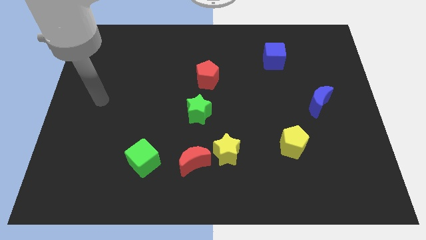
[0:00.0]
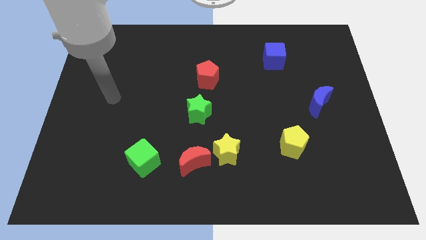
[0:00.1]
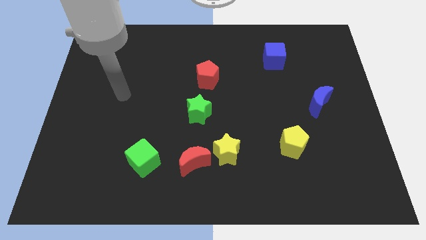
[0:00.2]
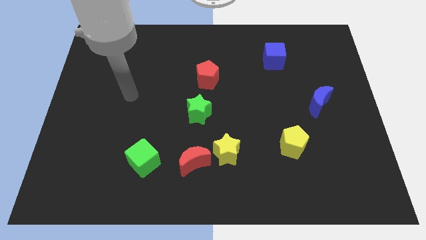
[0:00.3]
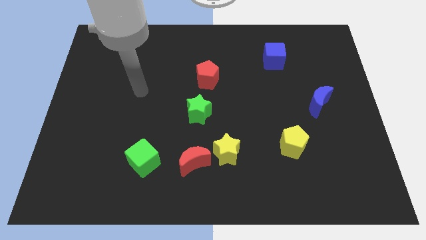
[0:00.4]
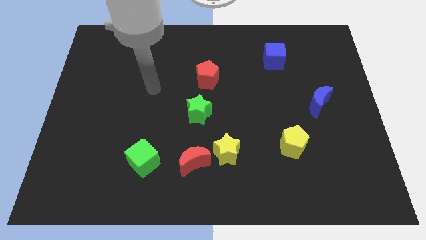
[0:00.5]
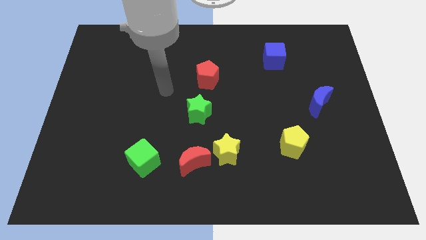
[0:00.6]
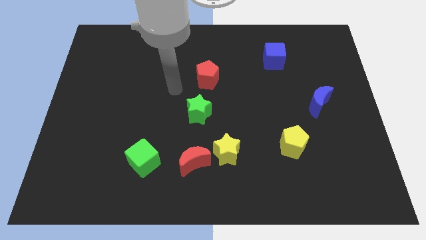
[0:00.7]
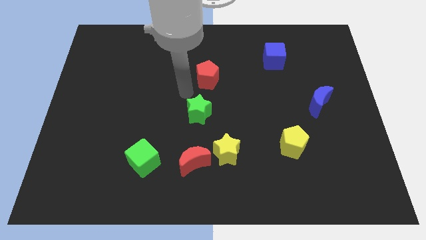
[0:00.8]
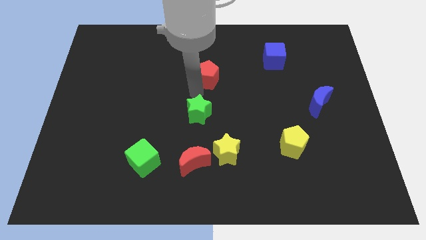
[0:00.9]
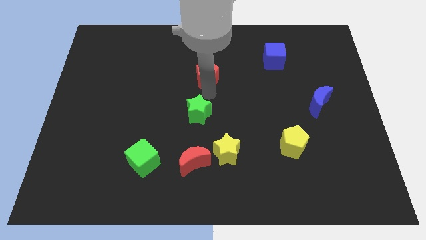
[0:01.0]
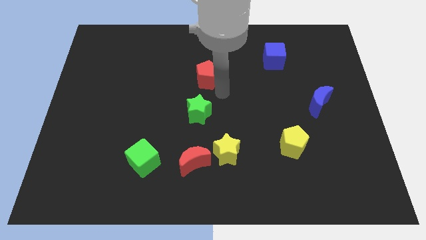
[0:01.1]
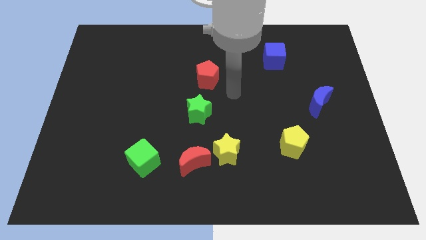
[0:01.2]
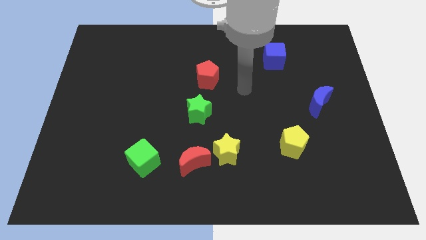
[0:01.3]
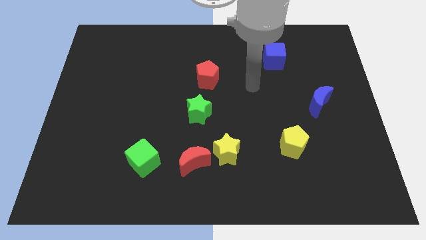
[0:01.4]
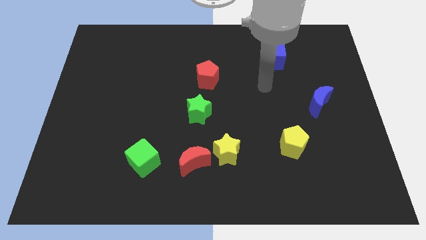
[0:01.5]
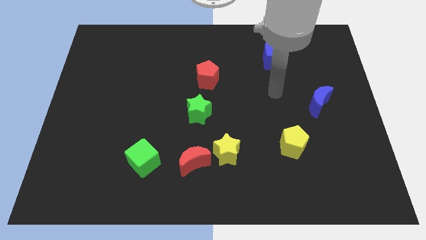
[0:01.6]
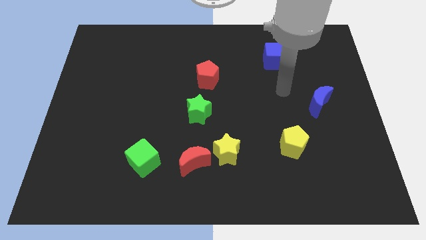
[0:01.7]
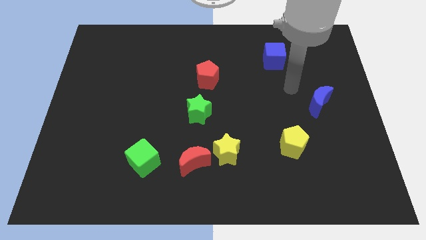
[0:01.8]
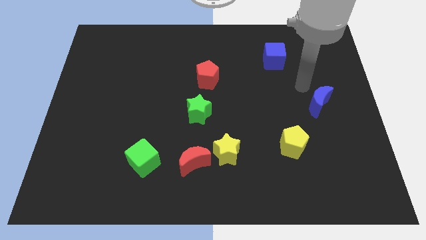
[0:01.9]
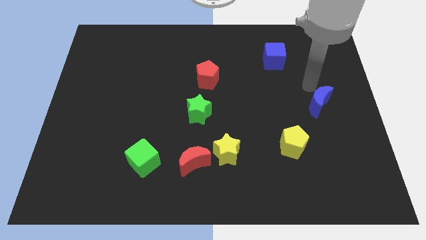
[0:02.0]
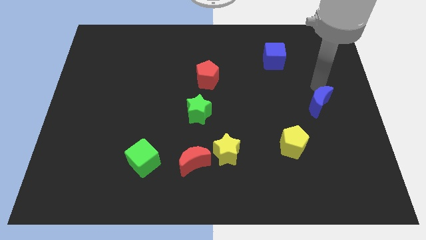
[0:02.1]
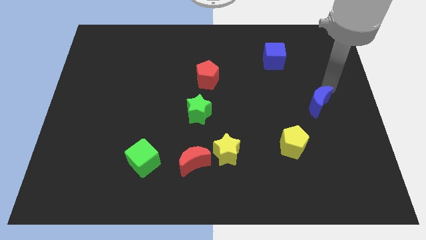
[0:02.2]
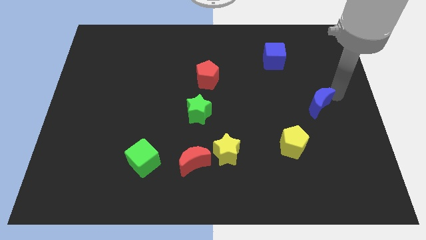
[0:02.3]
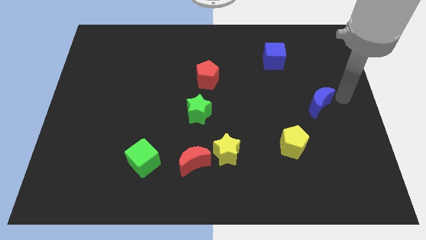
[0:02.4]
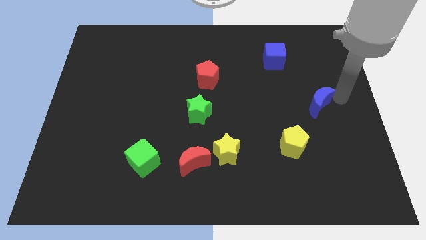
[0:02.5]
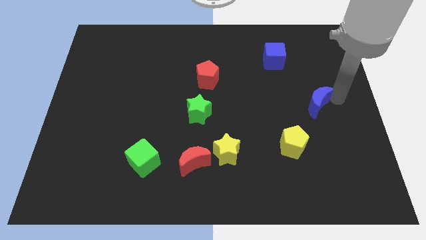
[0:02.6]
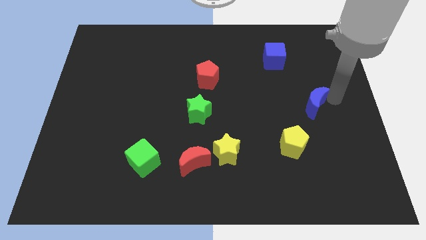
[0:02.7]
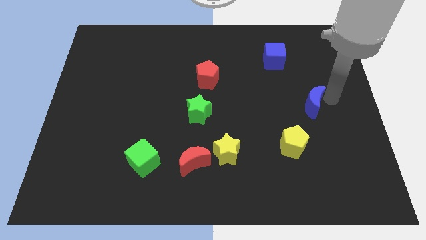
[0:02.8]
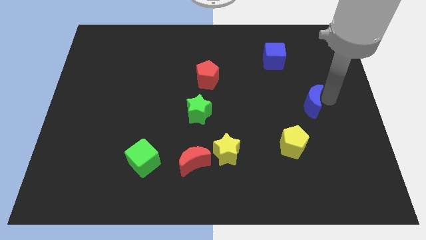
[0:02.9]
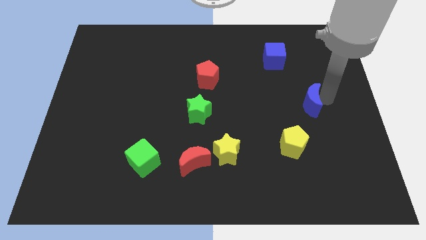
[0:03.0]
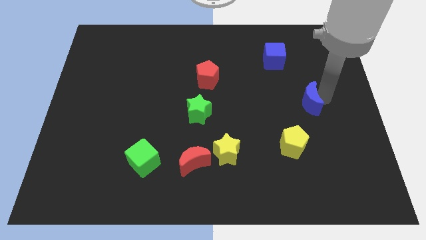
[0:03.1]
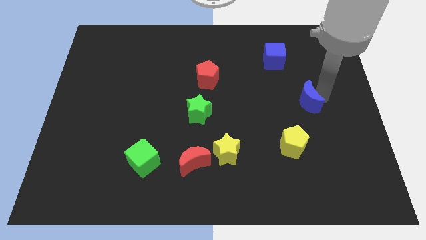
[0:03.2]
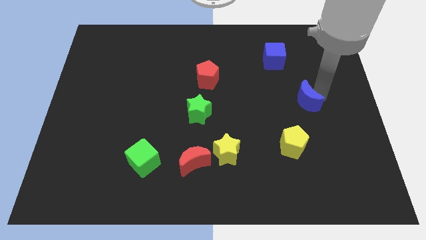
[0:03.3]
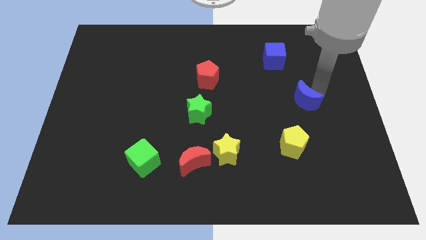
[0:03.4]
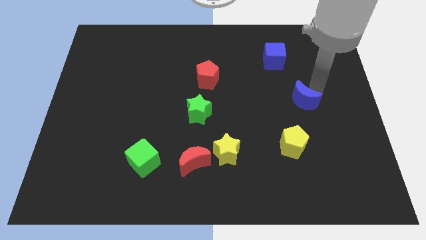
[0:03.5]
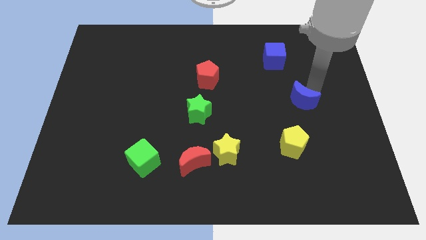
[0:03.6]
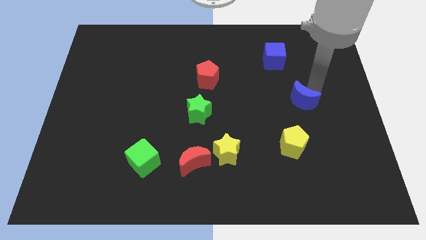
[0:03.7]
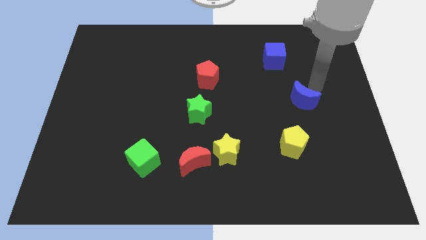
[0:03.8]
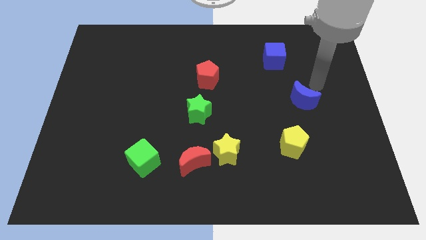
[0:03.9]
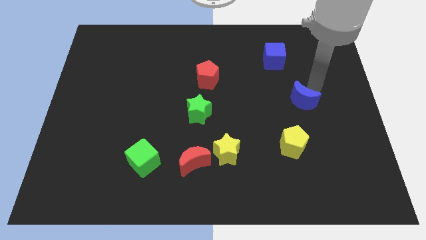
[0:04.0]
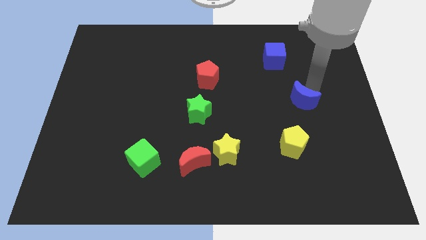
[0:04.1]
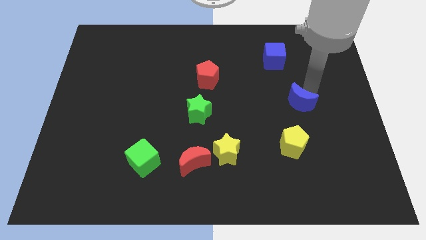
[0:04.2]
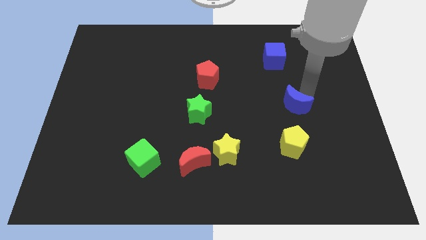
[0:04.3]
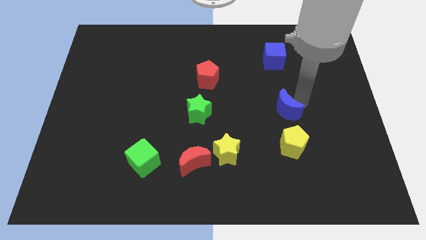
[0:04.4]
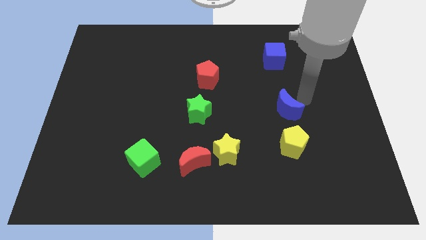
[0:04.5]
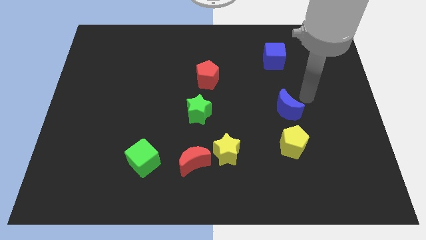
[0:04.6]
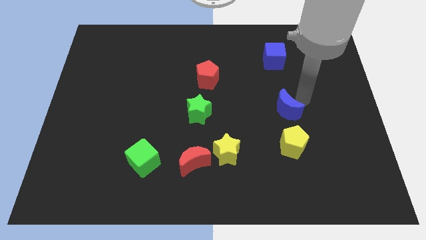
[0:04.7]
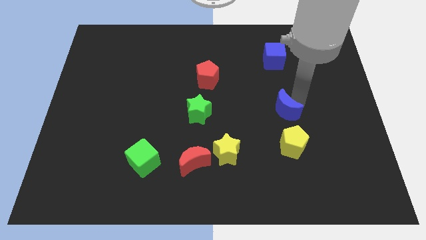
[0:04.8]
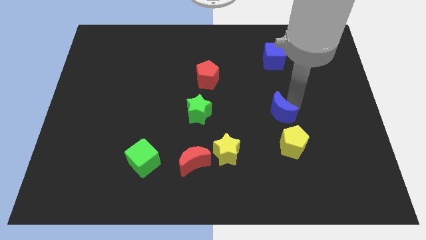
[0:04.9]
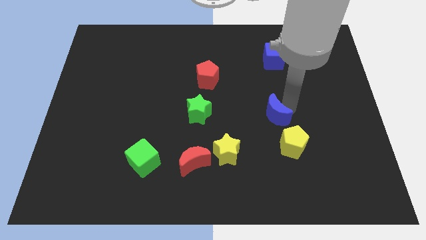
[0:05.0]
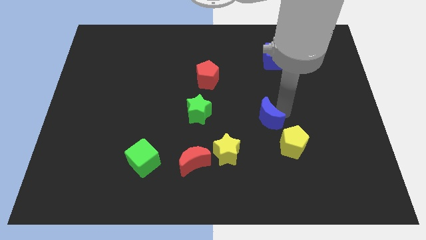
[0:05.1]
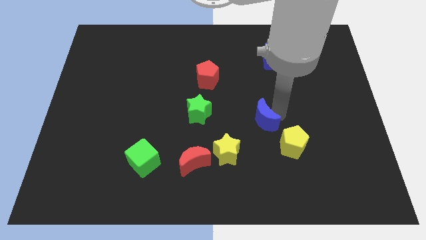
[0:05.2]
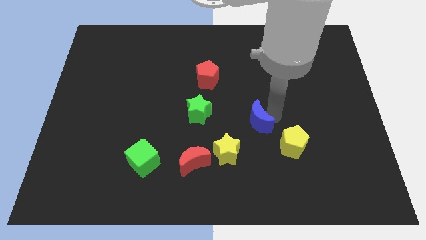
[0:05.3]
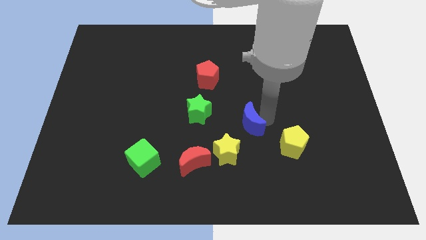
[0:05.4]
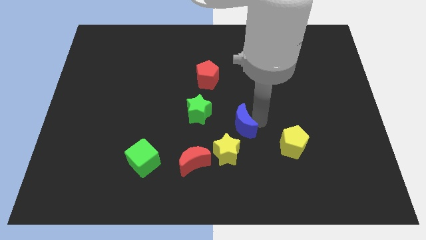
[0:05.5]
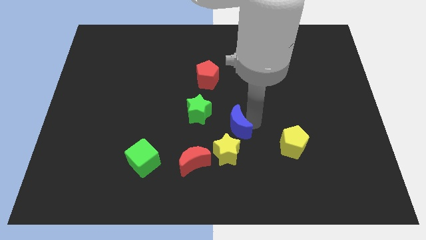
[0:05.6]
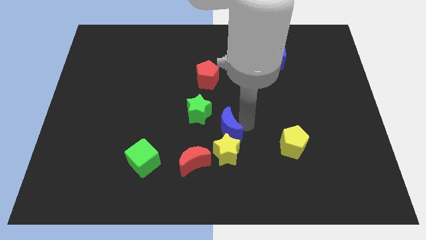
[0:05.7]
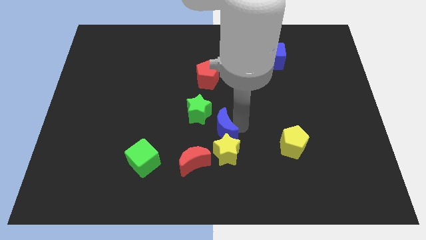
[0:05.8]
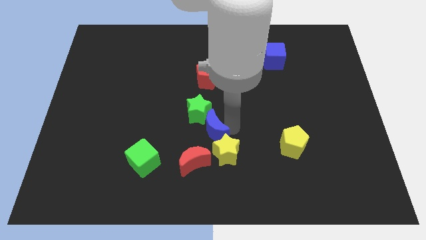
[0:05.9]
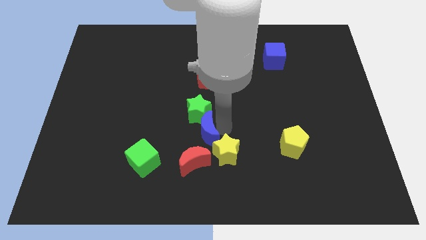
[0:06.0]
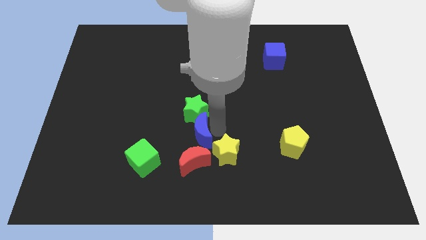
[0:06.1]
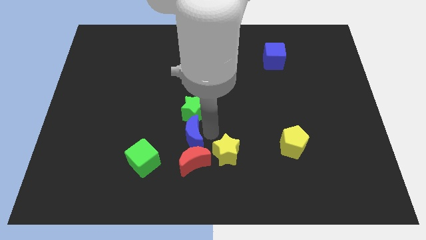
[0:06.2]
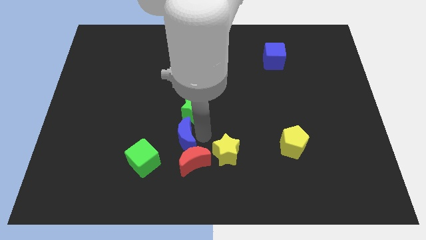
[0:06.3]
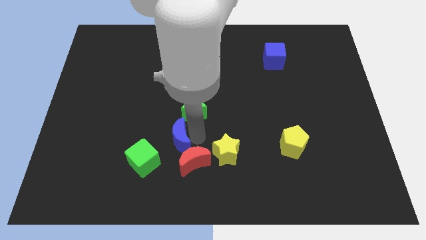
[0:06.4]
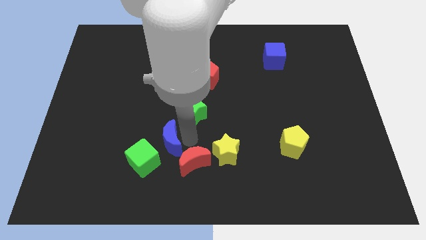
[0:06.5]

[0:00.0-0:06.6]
put the blue moon just left of the red moon

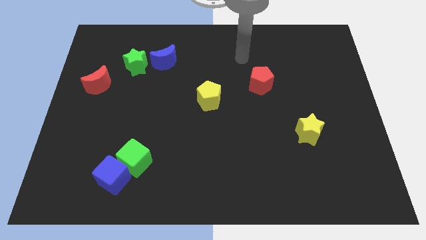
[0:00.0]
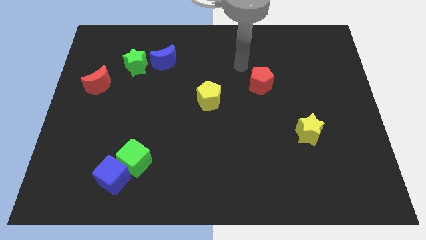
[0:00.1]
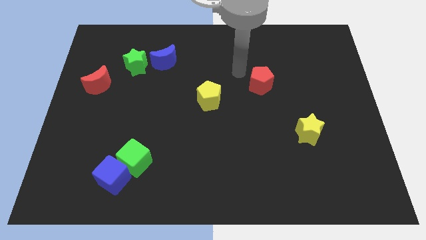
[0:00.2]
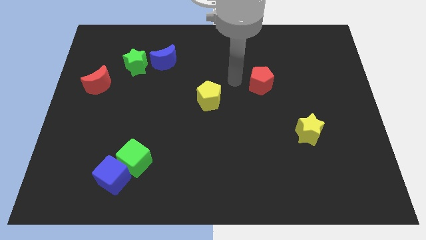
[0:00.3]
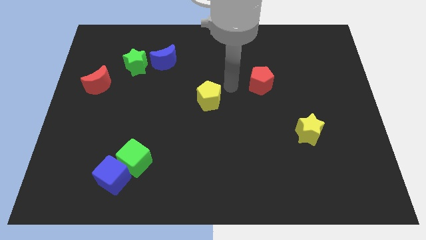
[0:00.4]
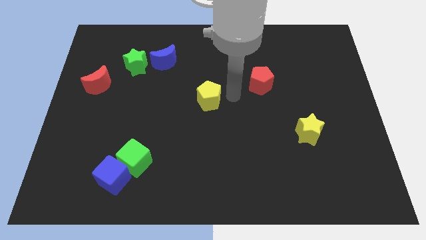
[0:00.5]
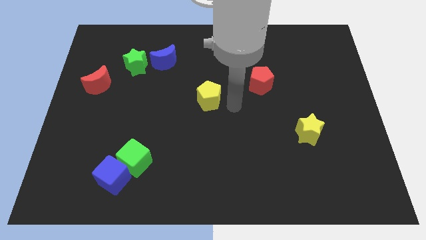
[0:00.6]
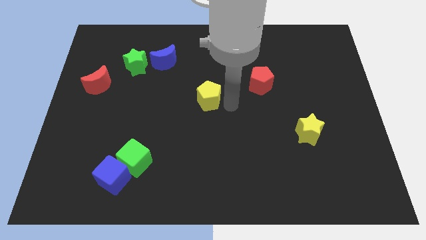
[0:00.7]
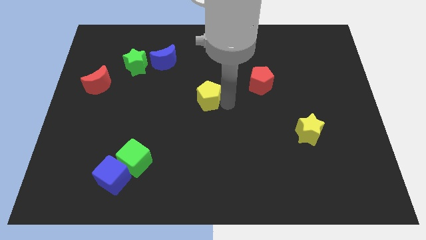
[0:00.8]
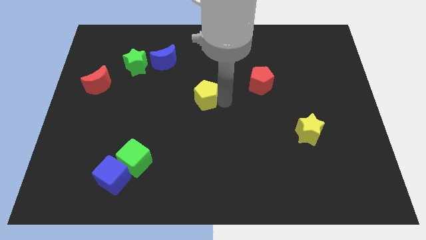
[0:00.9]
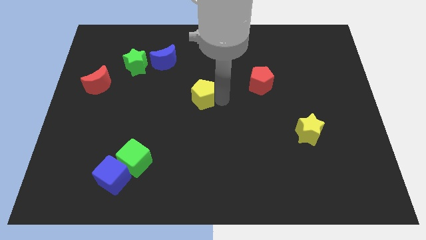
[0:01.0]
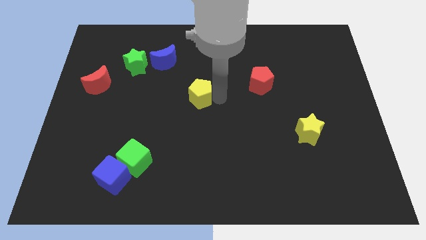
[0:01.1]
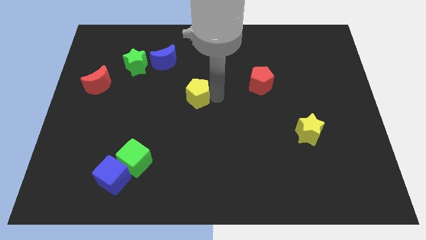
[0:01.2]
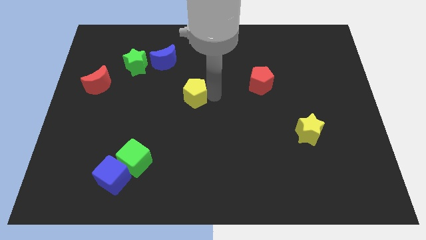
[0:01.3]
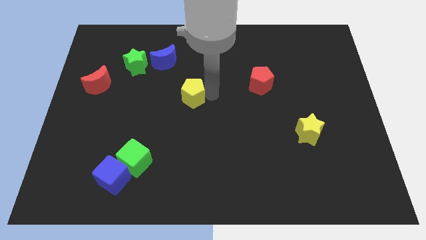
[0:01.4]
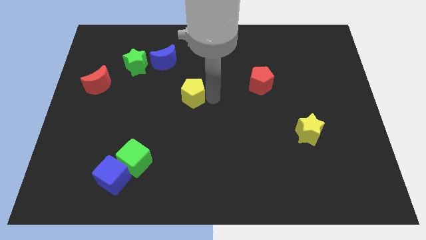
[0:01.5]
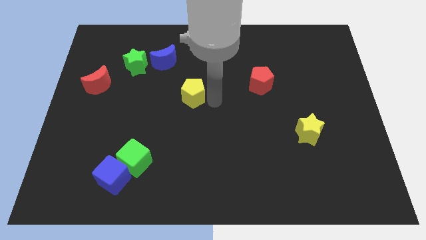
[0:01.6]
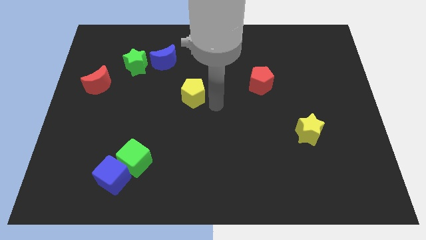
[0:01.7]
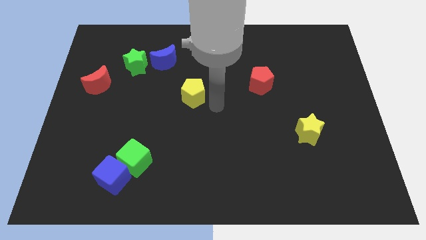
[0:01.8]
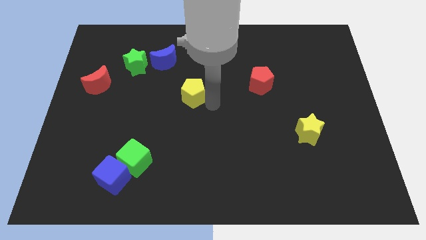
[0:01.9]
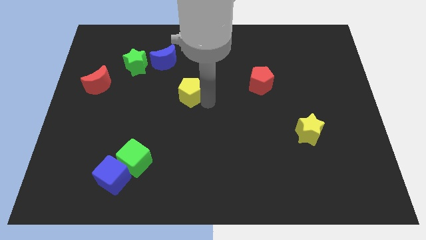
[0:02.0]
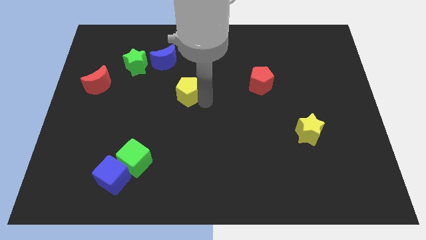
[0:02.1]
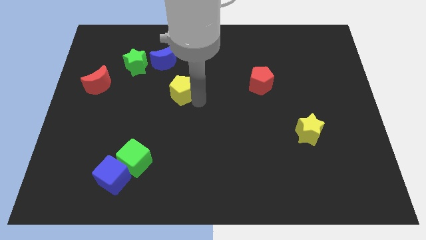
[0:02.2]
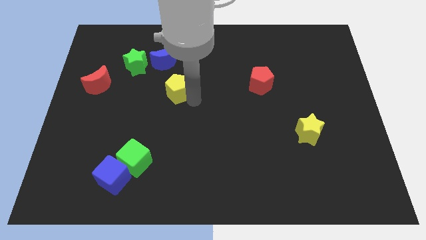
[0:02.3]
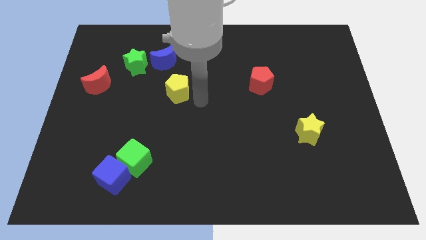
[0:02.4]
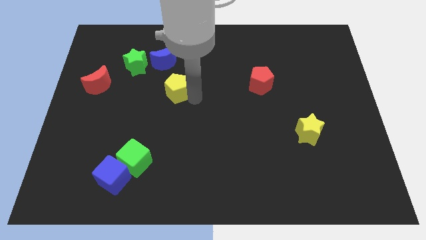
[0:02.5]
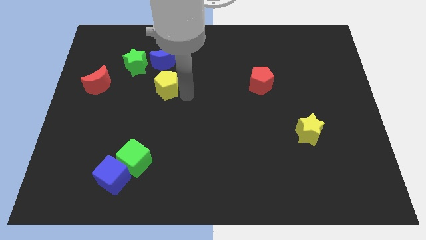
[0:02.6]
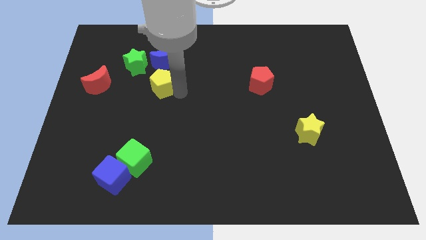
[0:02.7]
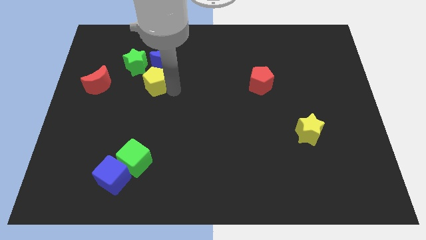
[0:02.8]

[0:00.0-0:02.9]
put the yellow pentagon to the bottom left side of the blue moon
